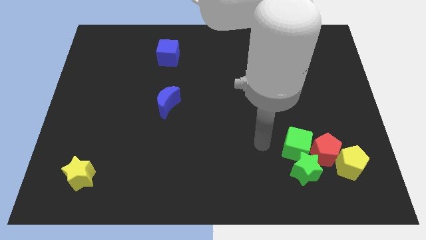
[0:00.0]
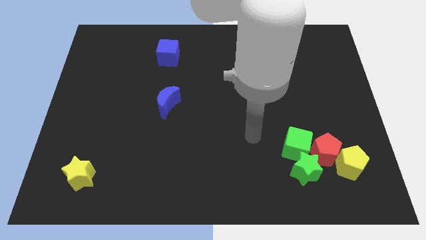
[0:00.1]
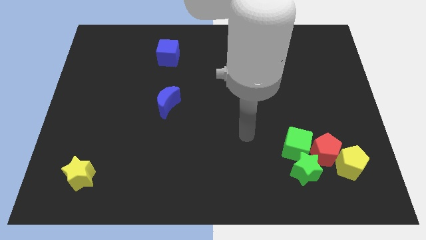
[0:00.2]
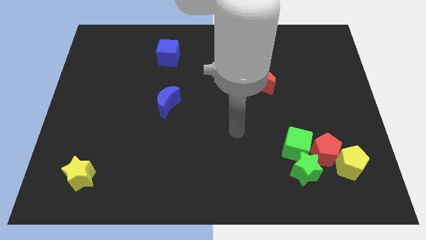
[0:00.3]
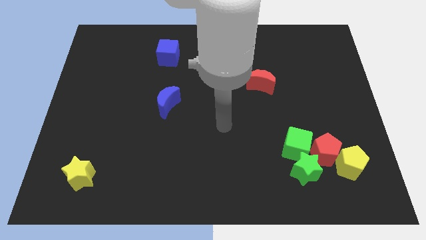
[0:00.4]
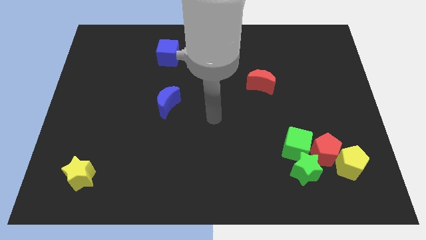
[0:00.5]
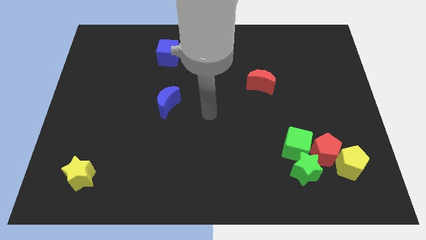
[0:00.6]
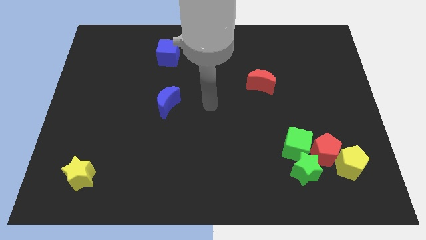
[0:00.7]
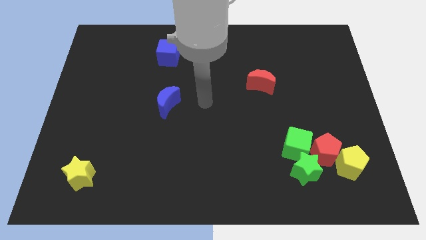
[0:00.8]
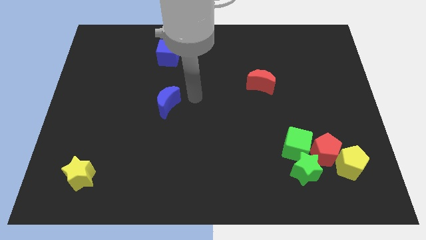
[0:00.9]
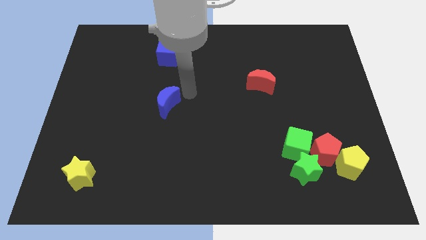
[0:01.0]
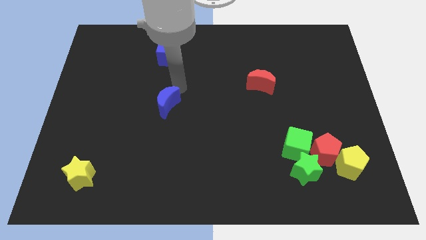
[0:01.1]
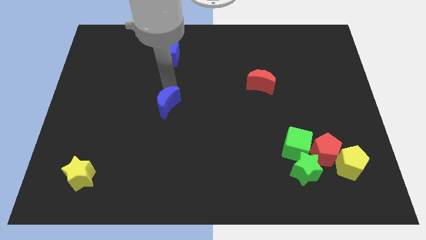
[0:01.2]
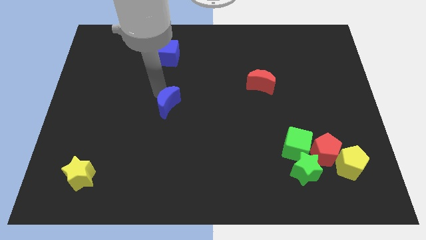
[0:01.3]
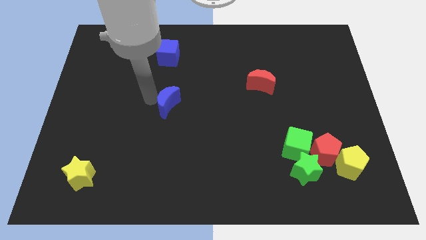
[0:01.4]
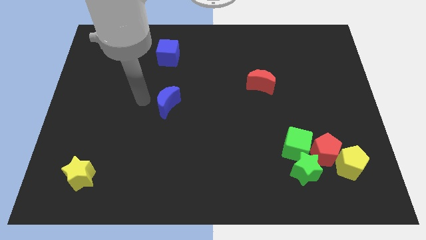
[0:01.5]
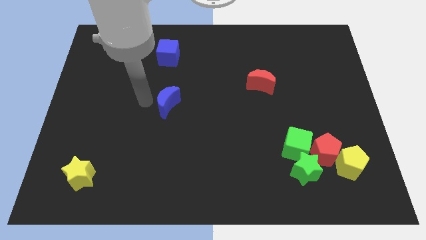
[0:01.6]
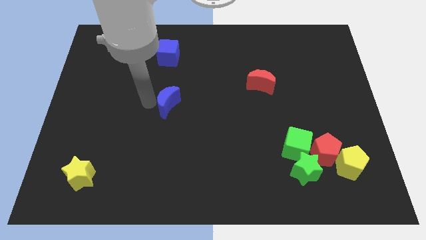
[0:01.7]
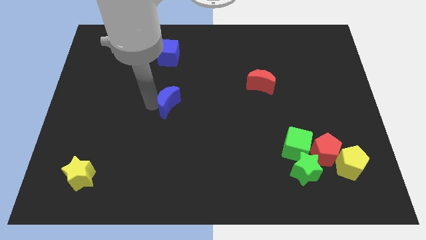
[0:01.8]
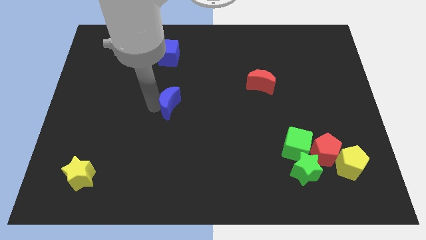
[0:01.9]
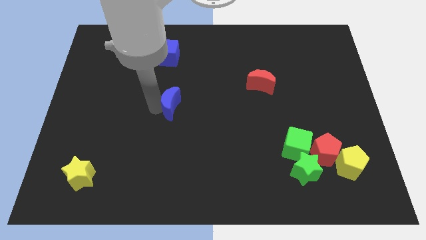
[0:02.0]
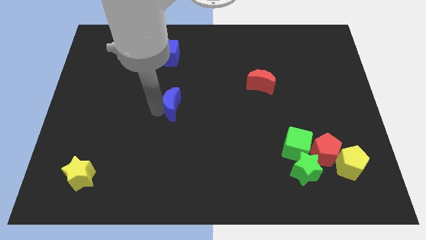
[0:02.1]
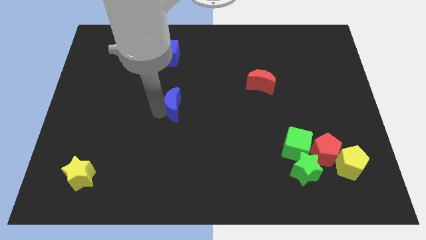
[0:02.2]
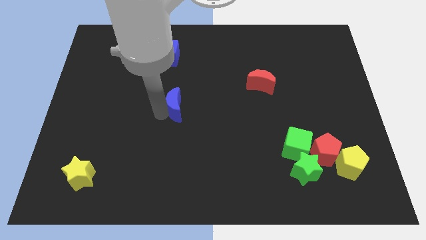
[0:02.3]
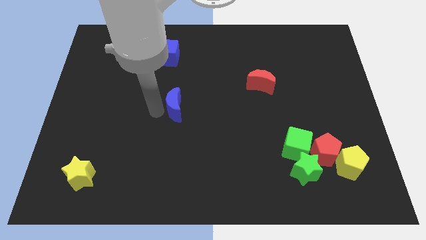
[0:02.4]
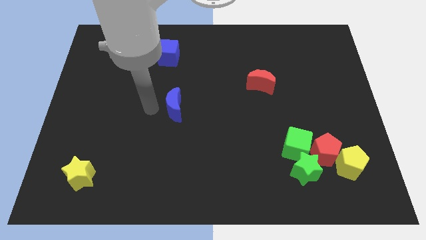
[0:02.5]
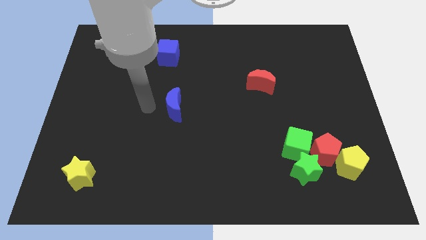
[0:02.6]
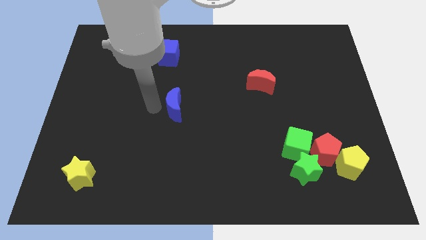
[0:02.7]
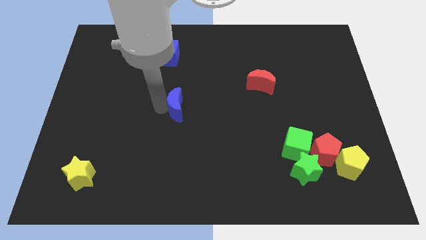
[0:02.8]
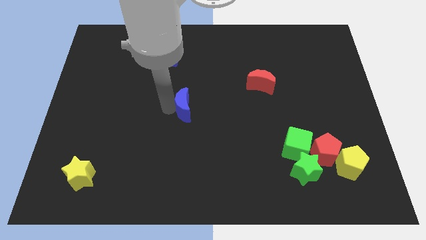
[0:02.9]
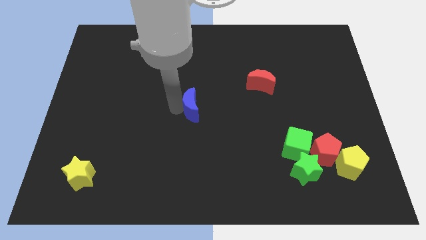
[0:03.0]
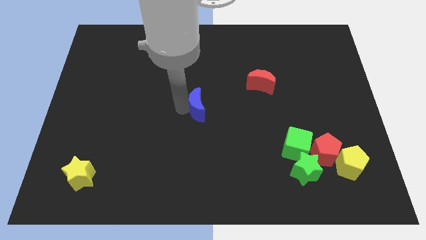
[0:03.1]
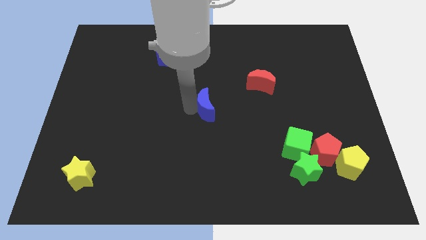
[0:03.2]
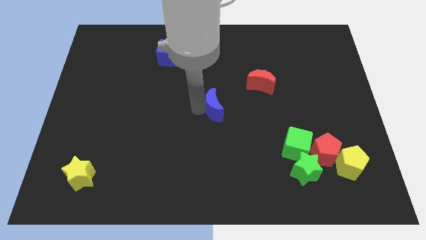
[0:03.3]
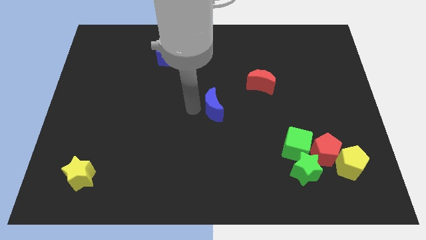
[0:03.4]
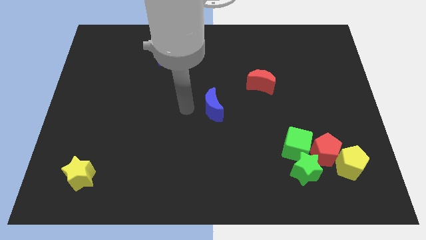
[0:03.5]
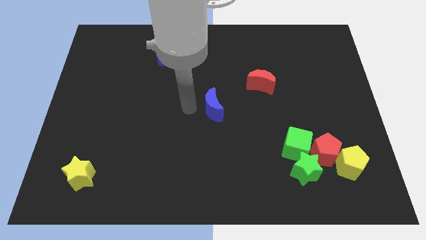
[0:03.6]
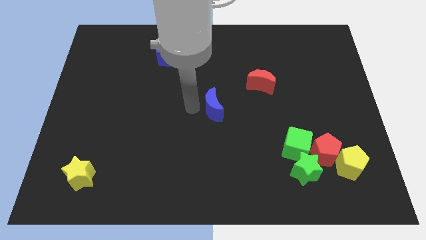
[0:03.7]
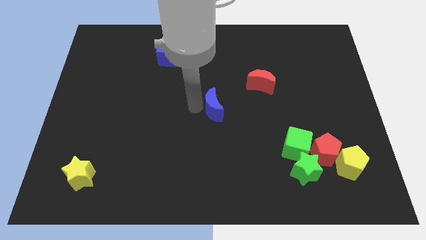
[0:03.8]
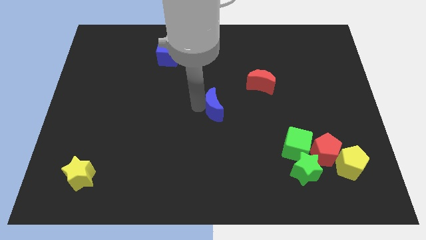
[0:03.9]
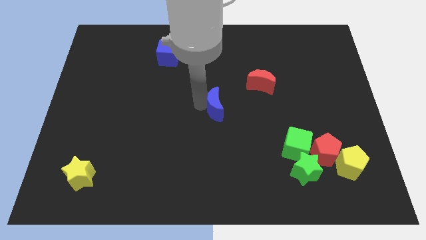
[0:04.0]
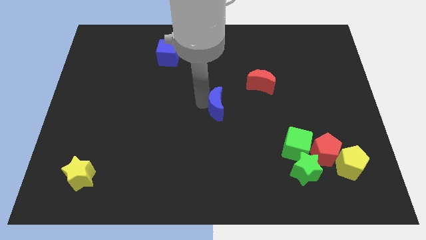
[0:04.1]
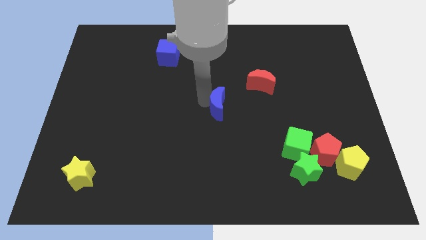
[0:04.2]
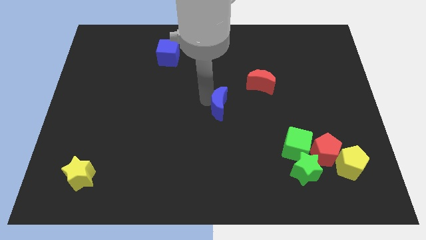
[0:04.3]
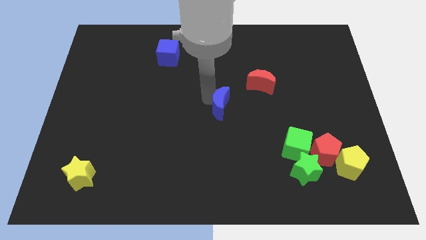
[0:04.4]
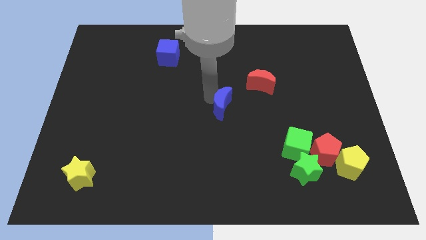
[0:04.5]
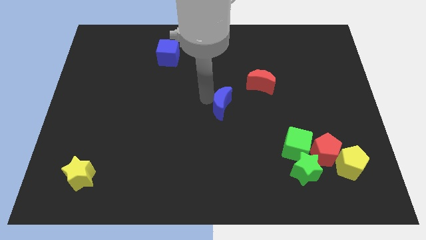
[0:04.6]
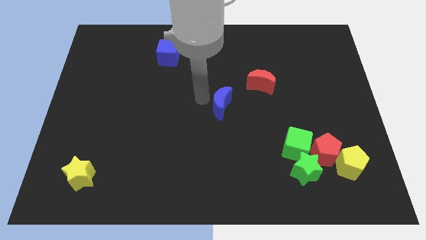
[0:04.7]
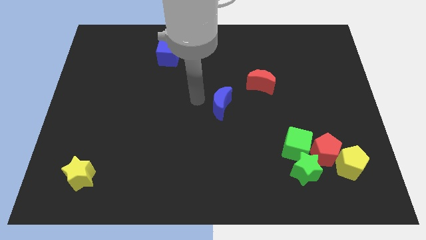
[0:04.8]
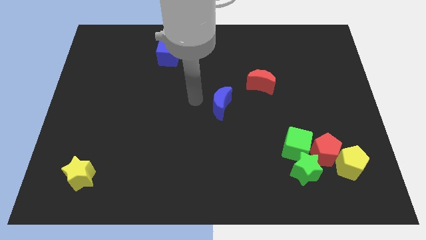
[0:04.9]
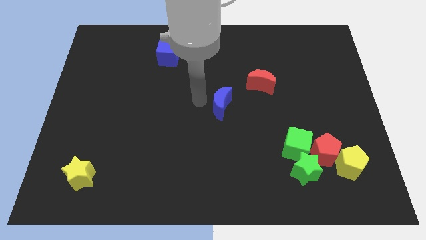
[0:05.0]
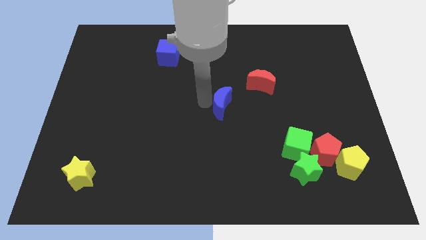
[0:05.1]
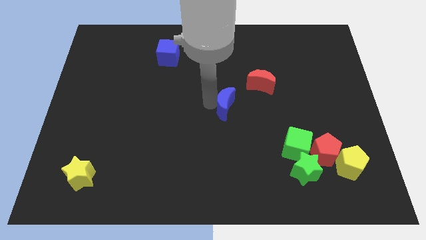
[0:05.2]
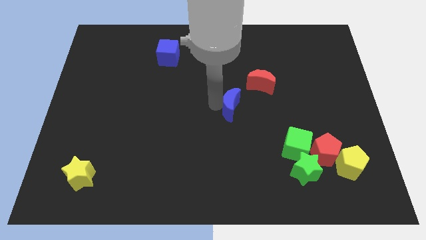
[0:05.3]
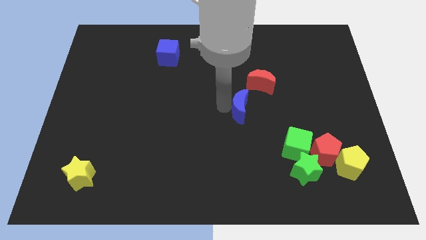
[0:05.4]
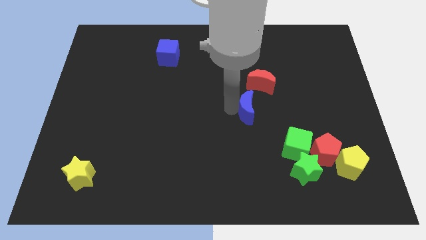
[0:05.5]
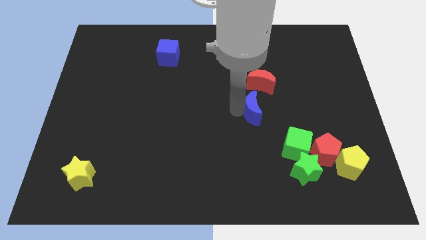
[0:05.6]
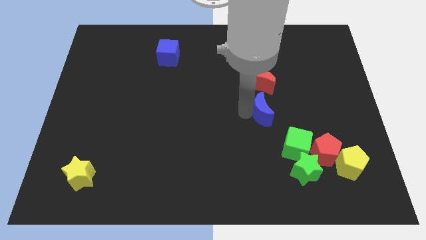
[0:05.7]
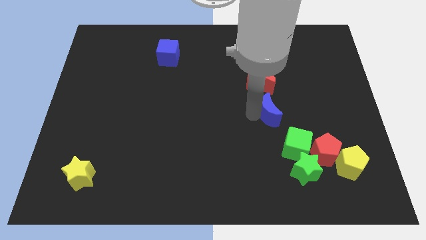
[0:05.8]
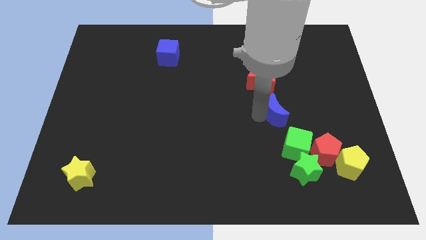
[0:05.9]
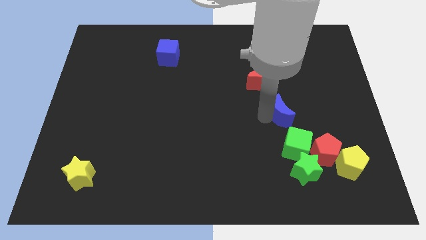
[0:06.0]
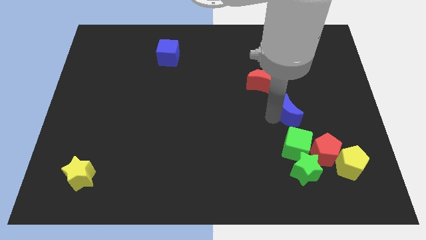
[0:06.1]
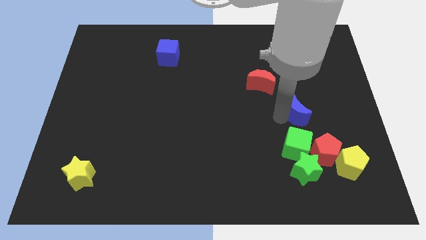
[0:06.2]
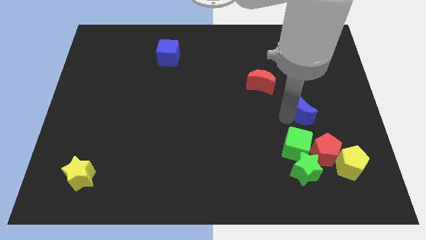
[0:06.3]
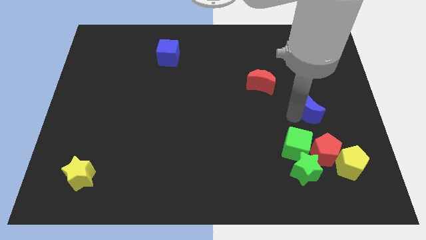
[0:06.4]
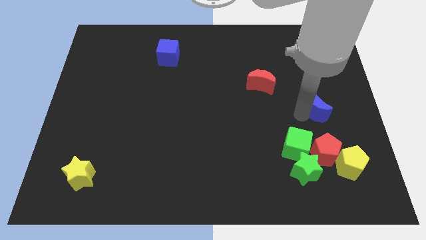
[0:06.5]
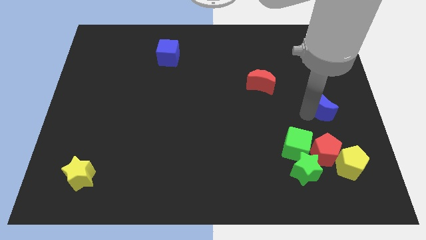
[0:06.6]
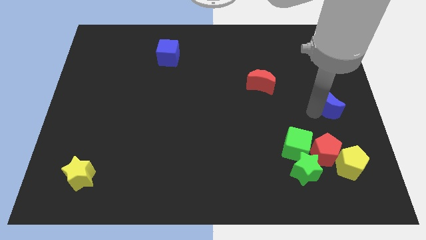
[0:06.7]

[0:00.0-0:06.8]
move the blue moon to the right side of the board
